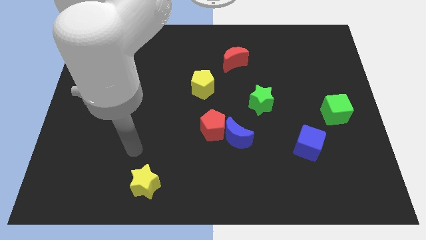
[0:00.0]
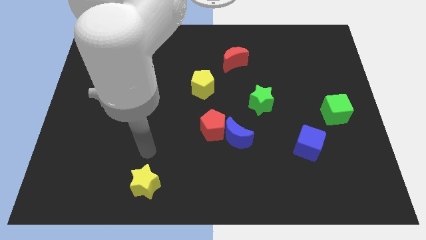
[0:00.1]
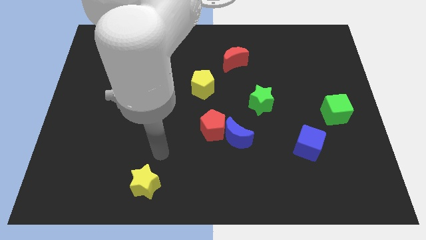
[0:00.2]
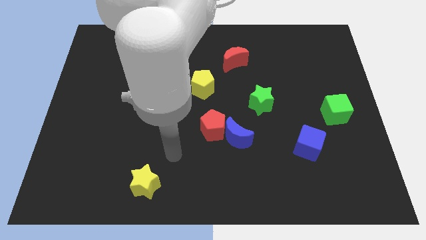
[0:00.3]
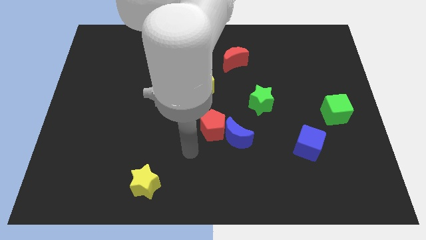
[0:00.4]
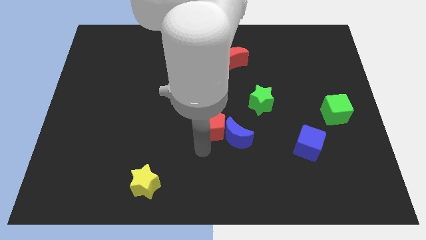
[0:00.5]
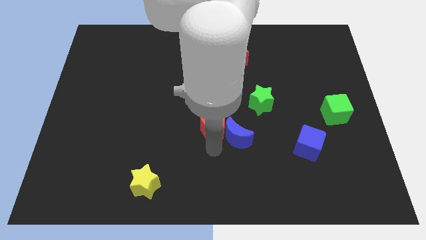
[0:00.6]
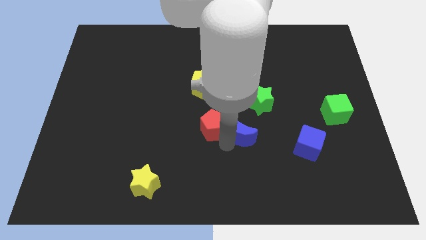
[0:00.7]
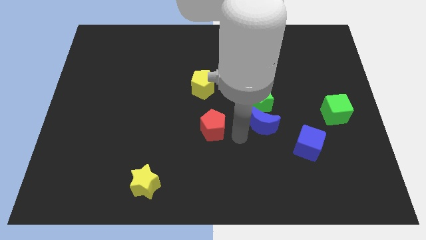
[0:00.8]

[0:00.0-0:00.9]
move the red pentagon away from the blue moon

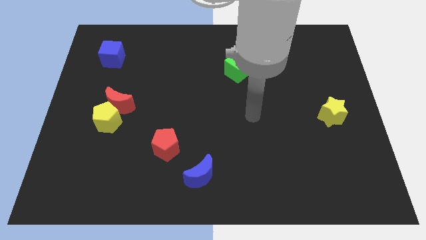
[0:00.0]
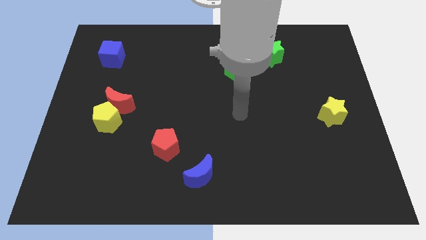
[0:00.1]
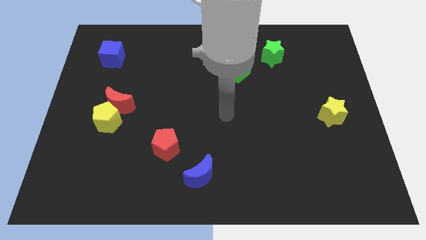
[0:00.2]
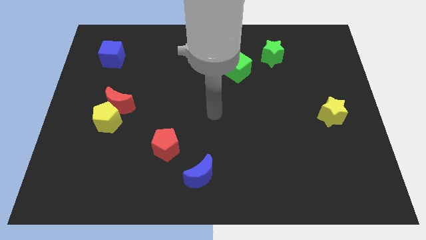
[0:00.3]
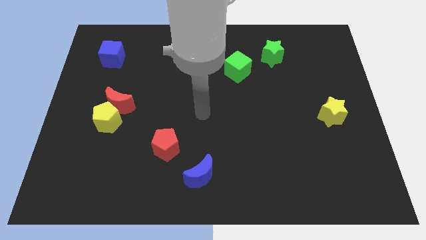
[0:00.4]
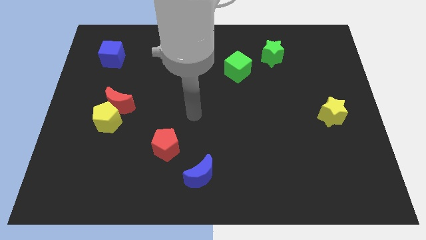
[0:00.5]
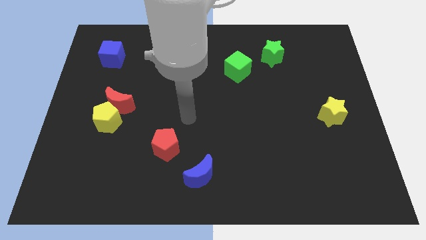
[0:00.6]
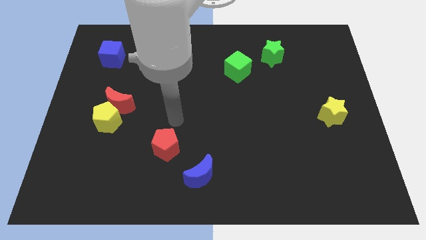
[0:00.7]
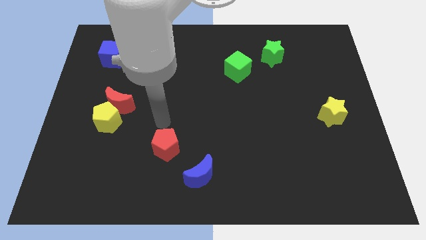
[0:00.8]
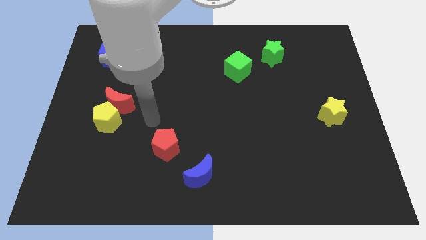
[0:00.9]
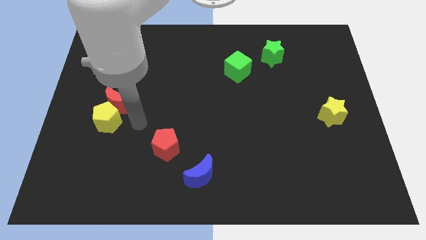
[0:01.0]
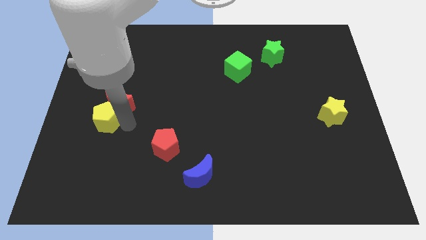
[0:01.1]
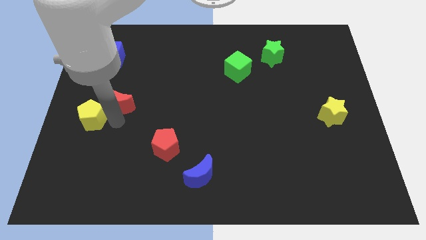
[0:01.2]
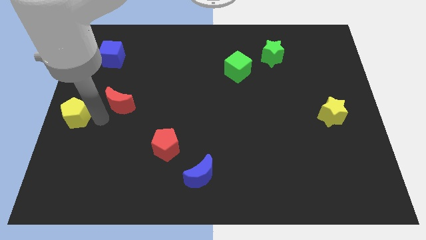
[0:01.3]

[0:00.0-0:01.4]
separate the red moon from the yellow pentagon

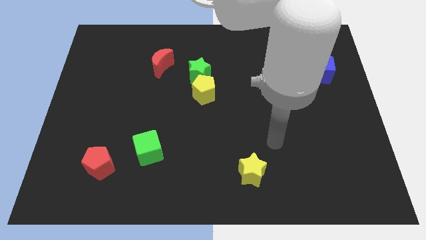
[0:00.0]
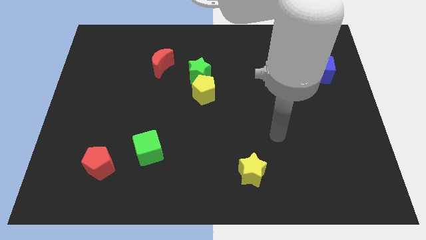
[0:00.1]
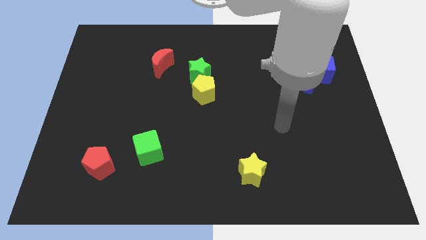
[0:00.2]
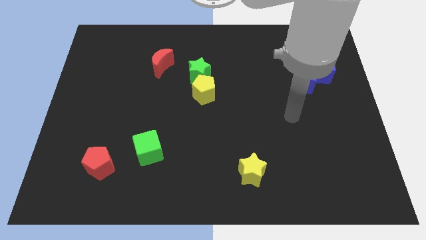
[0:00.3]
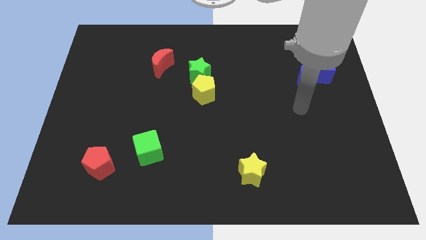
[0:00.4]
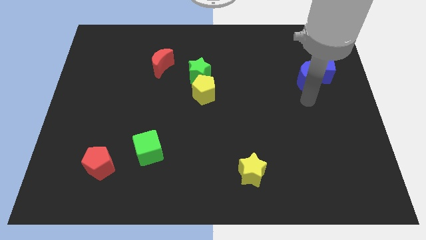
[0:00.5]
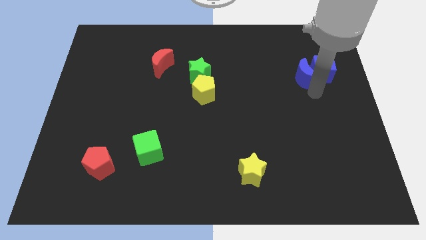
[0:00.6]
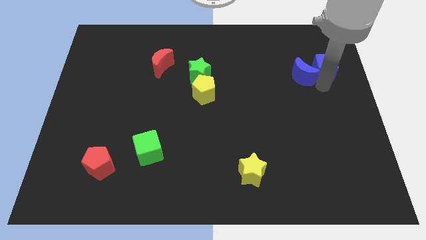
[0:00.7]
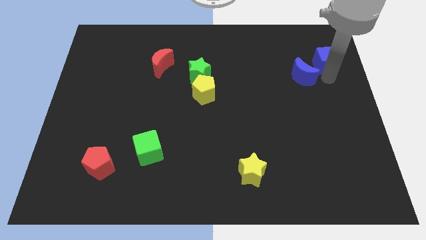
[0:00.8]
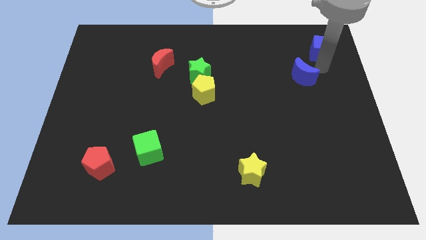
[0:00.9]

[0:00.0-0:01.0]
separate the blue moon from the blue cube

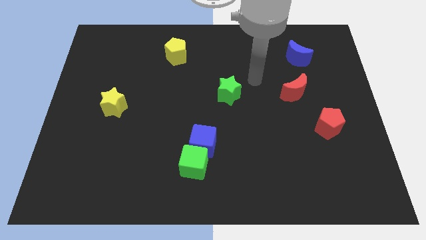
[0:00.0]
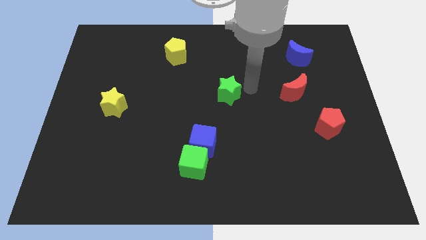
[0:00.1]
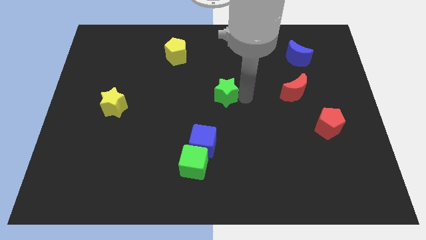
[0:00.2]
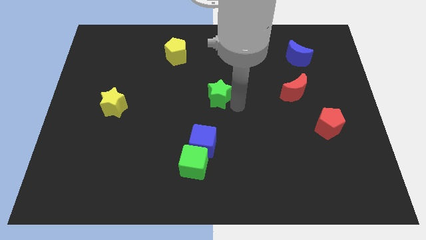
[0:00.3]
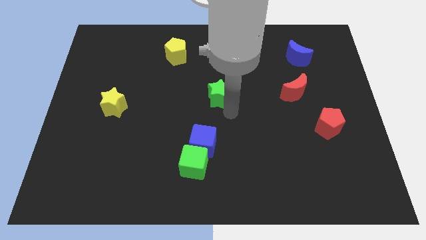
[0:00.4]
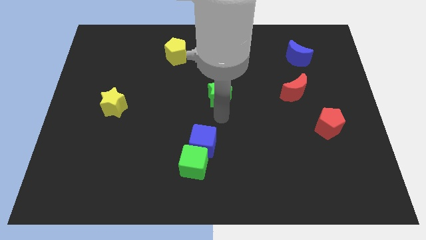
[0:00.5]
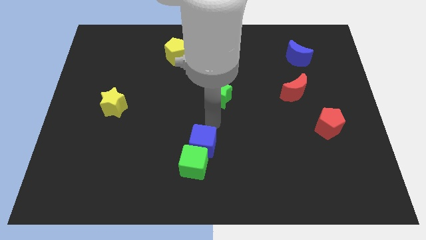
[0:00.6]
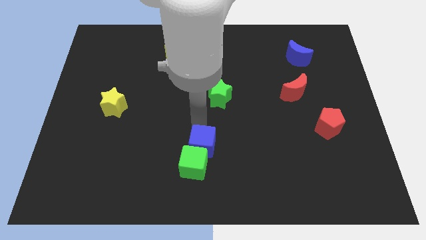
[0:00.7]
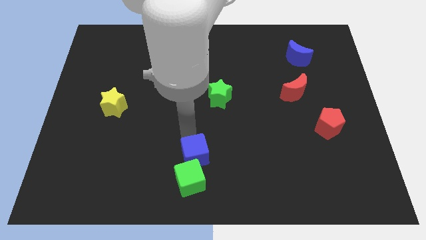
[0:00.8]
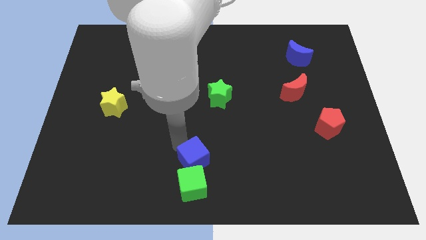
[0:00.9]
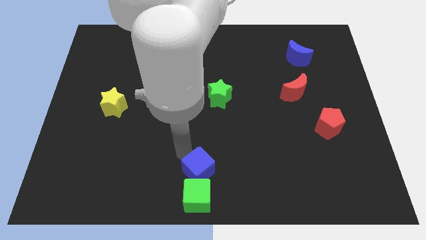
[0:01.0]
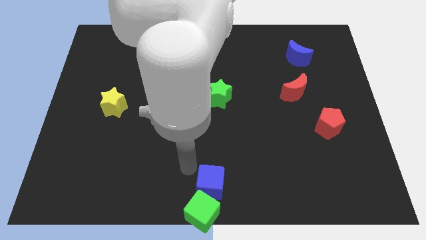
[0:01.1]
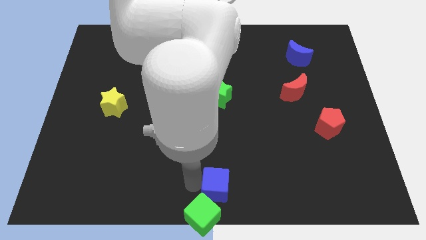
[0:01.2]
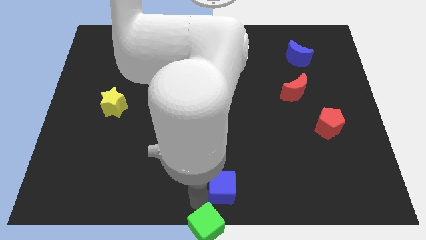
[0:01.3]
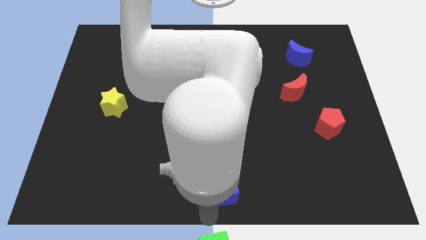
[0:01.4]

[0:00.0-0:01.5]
pull the blue cube apart from the green cube

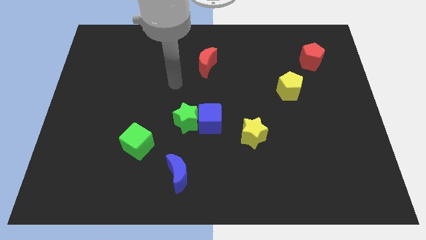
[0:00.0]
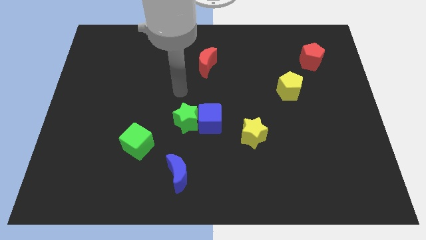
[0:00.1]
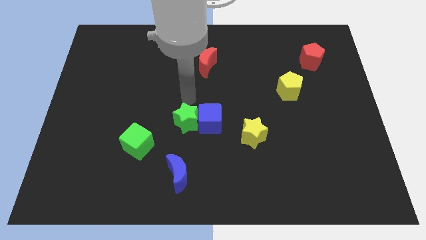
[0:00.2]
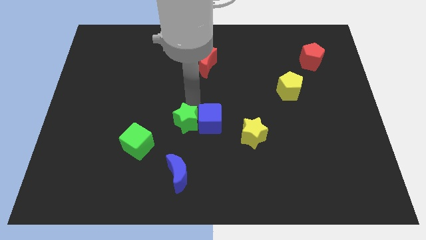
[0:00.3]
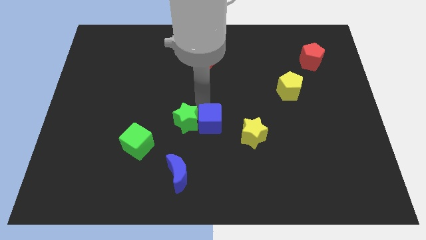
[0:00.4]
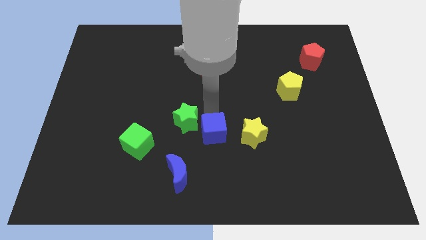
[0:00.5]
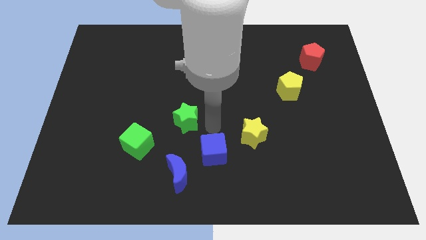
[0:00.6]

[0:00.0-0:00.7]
move the green star away from the blue cube

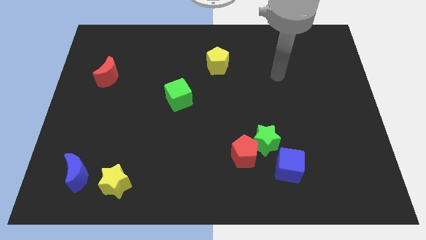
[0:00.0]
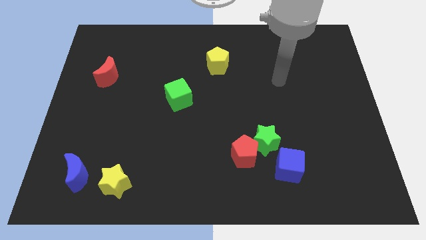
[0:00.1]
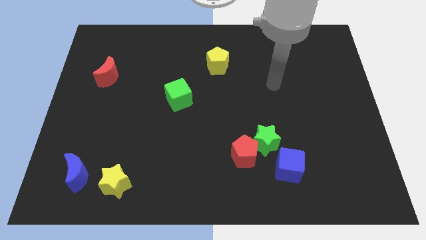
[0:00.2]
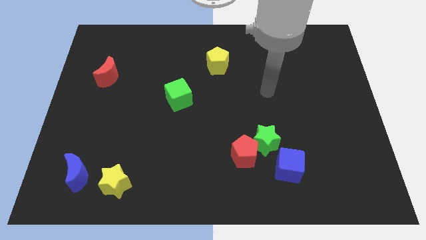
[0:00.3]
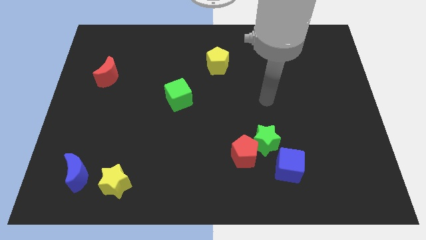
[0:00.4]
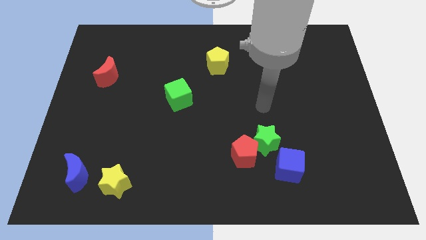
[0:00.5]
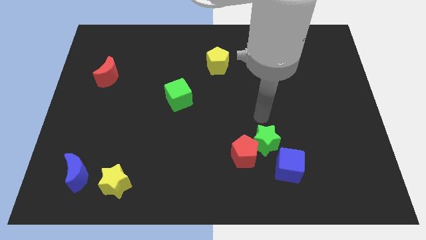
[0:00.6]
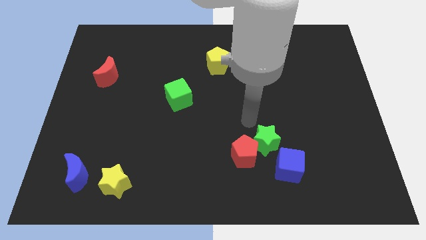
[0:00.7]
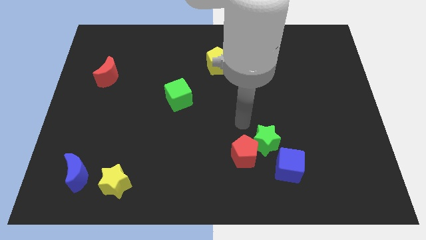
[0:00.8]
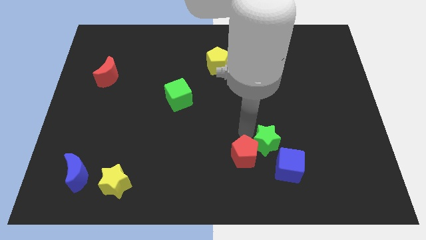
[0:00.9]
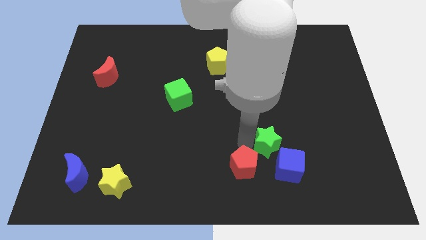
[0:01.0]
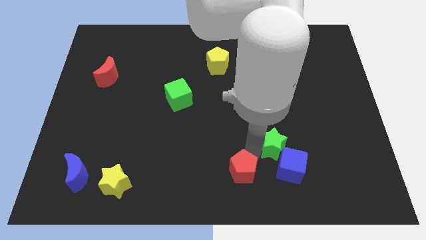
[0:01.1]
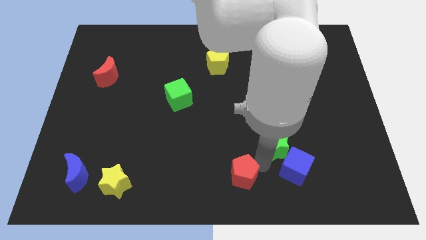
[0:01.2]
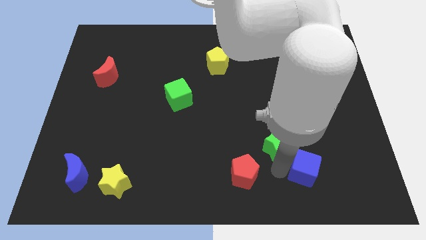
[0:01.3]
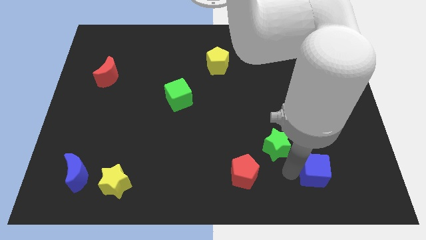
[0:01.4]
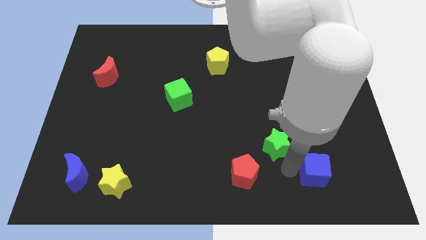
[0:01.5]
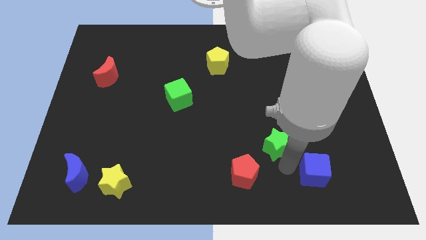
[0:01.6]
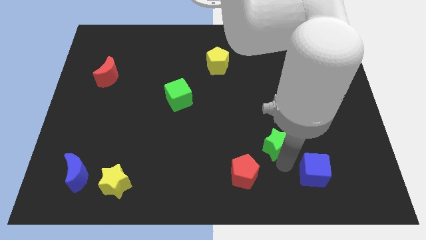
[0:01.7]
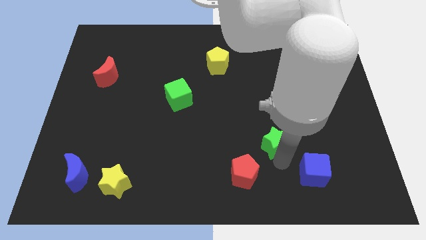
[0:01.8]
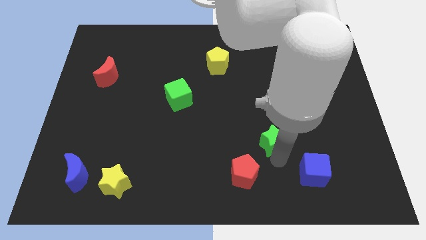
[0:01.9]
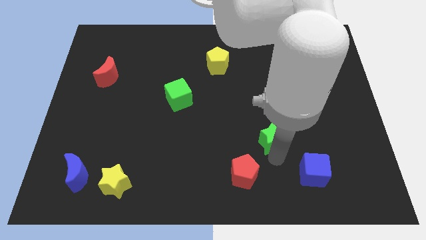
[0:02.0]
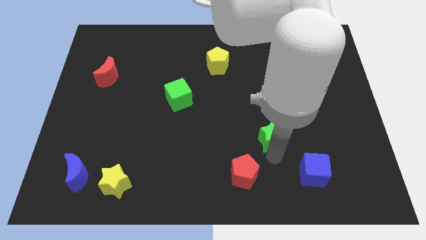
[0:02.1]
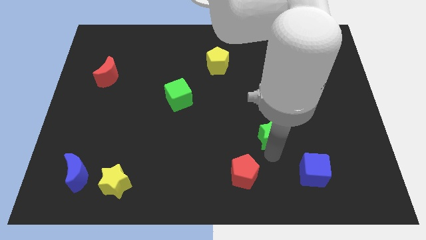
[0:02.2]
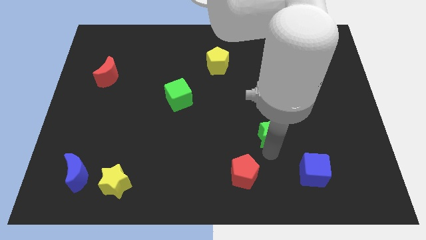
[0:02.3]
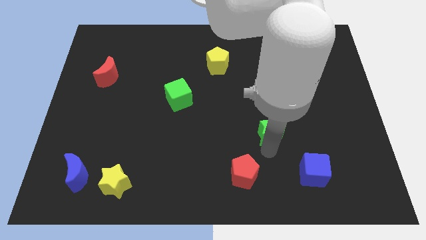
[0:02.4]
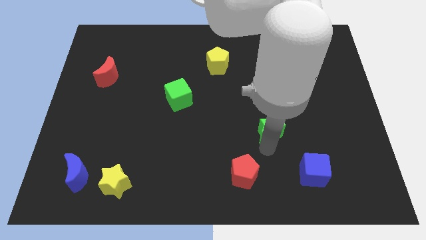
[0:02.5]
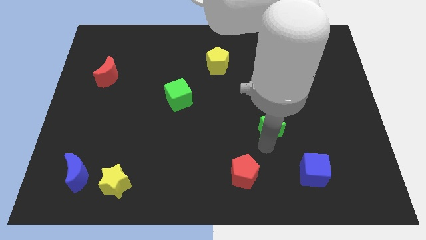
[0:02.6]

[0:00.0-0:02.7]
separate the green star from the red pentagon and blue cube

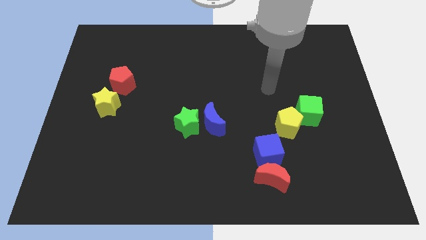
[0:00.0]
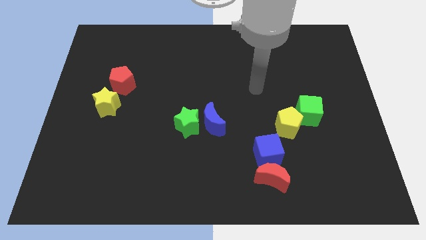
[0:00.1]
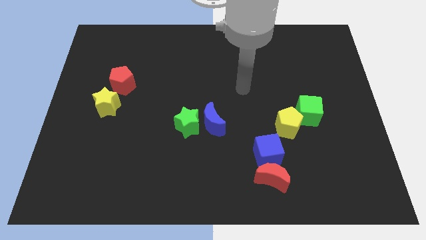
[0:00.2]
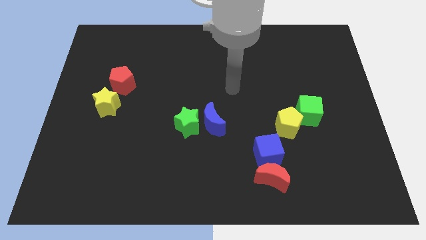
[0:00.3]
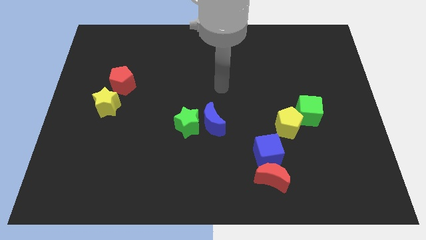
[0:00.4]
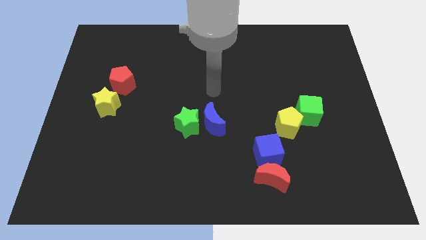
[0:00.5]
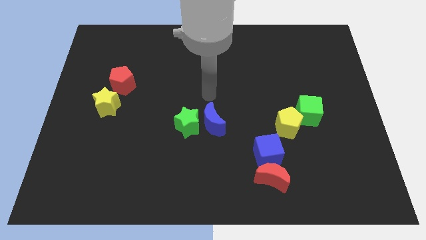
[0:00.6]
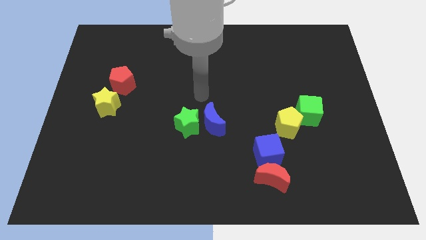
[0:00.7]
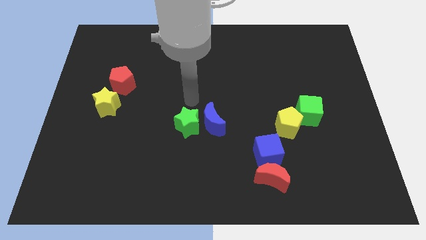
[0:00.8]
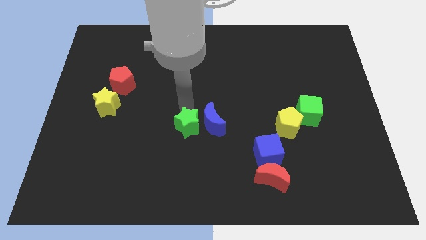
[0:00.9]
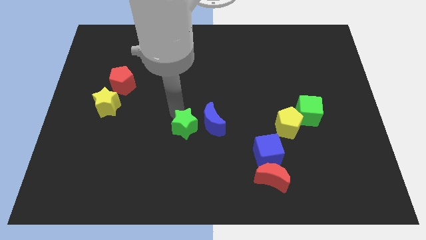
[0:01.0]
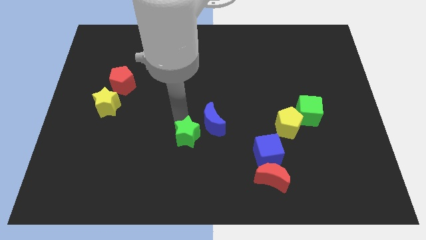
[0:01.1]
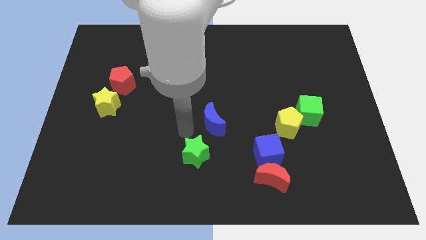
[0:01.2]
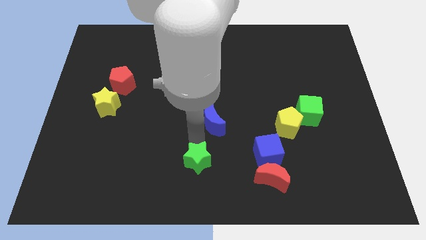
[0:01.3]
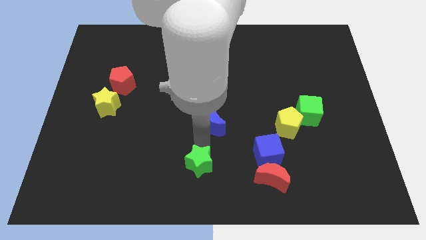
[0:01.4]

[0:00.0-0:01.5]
separate the blue moon from the green star
